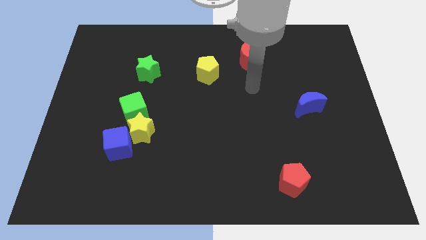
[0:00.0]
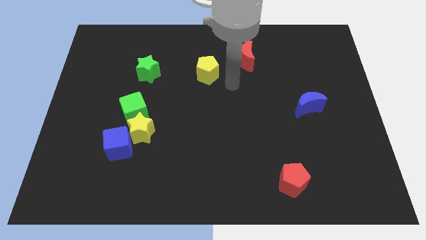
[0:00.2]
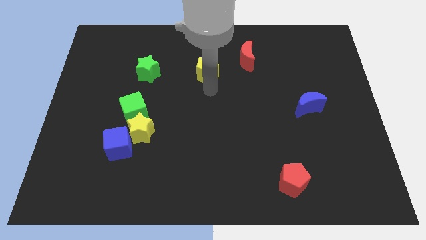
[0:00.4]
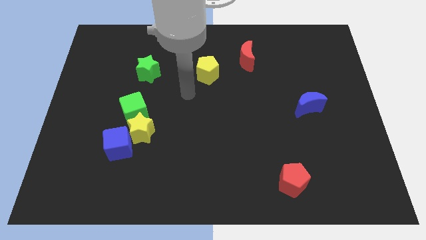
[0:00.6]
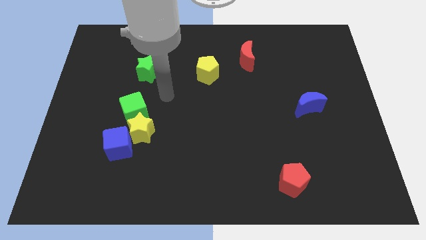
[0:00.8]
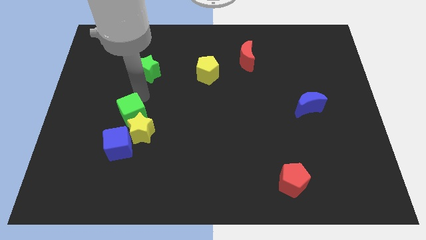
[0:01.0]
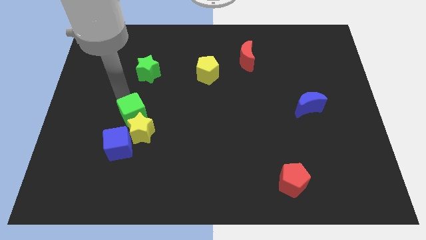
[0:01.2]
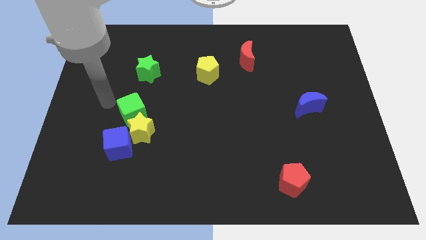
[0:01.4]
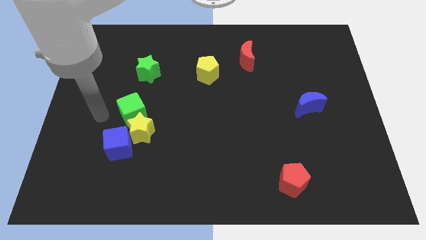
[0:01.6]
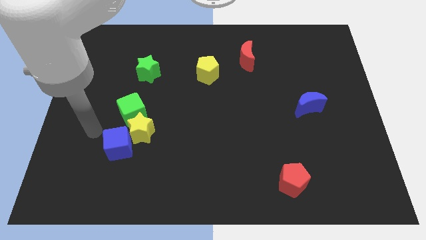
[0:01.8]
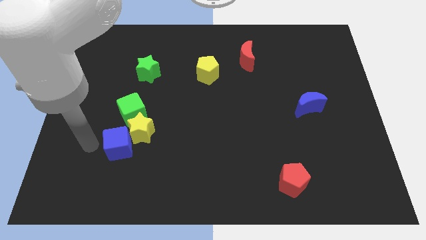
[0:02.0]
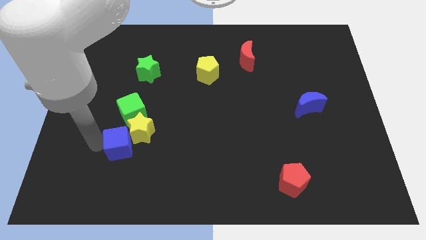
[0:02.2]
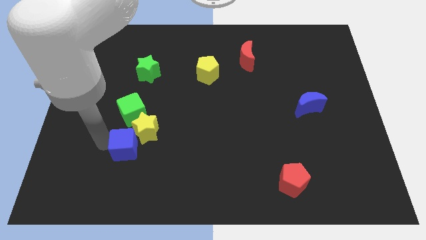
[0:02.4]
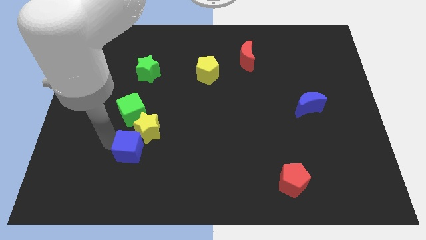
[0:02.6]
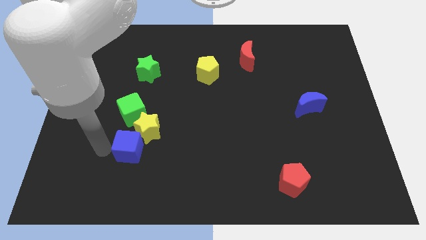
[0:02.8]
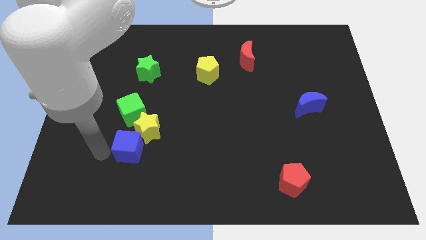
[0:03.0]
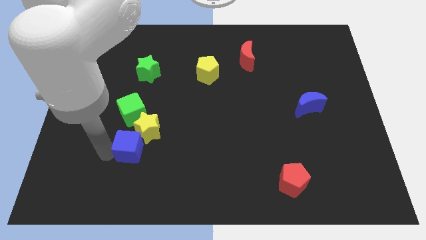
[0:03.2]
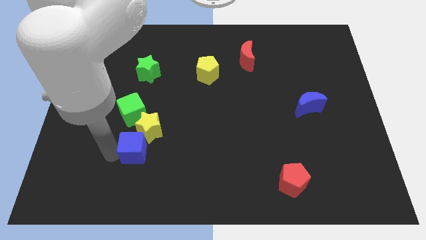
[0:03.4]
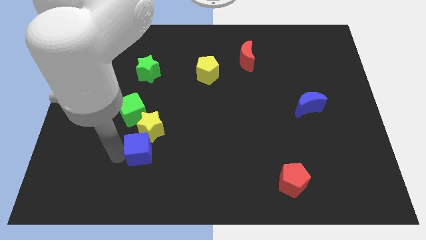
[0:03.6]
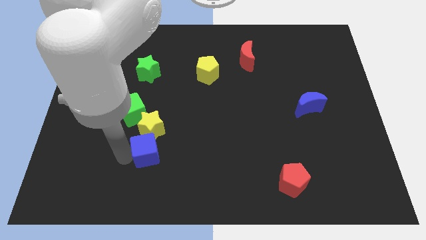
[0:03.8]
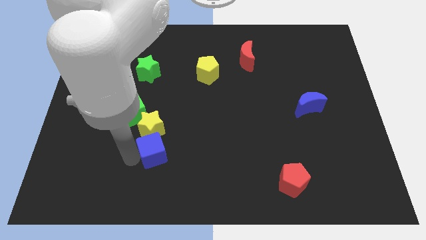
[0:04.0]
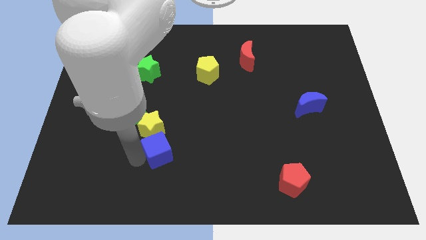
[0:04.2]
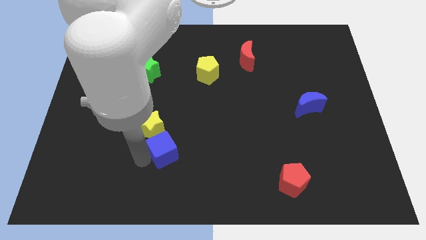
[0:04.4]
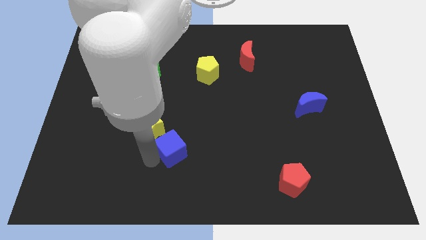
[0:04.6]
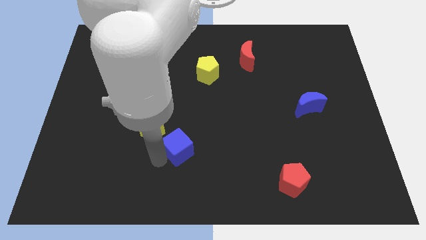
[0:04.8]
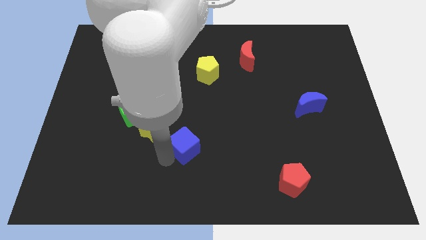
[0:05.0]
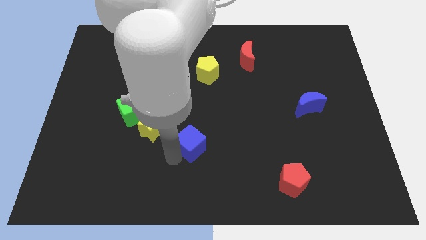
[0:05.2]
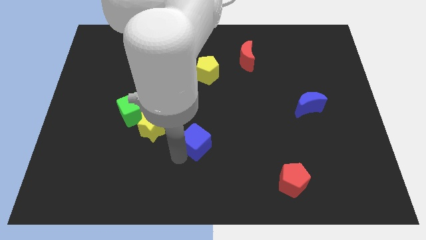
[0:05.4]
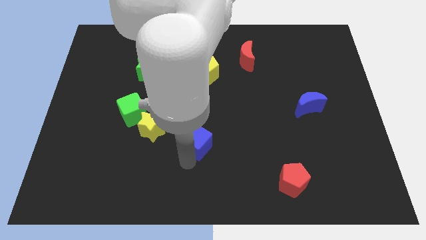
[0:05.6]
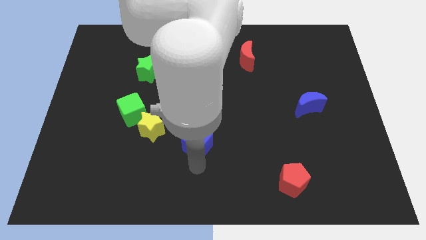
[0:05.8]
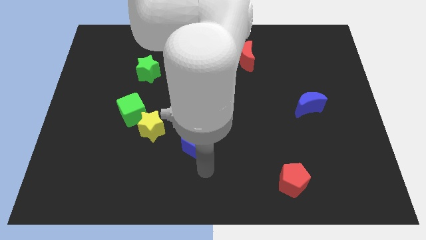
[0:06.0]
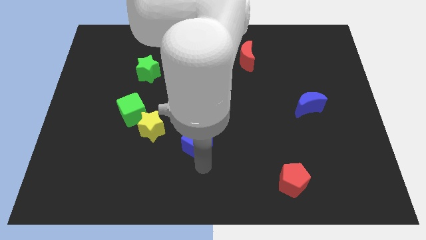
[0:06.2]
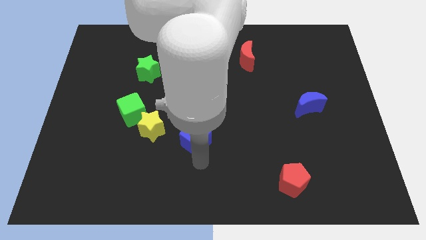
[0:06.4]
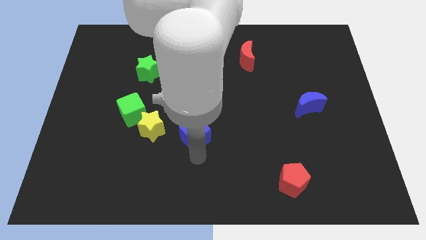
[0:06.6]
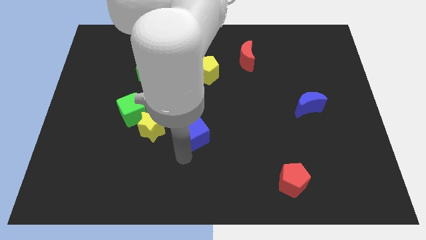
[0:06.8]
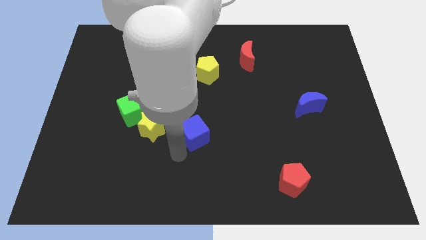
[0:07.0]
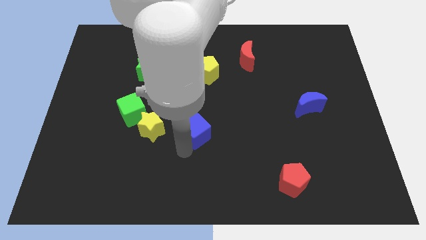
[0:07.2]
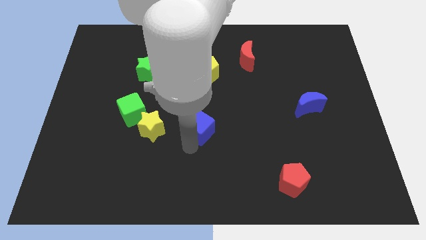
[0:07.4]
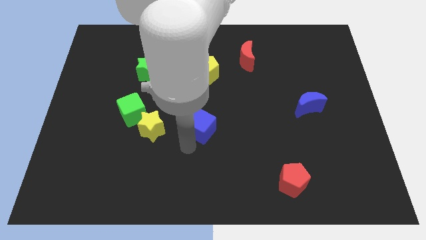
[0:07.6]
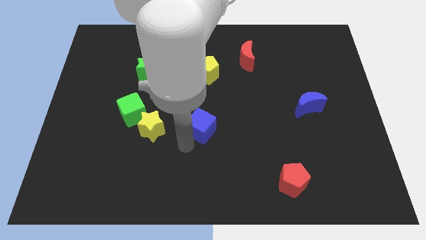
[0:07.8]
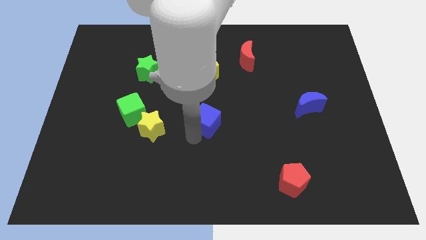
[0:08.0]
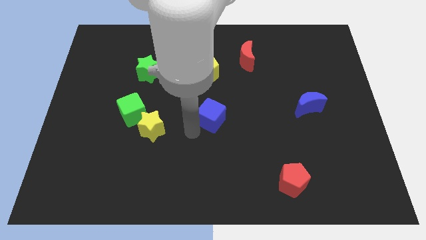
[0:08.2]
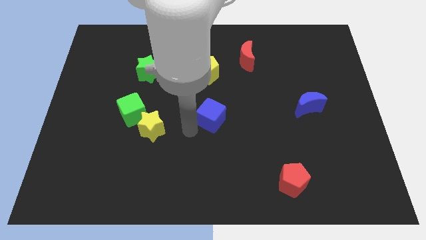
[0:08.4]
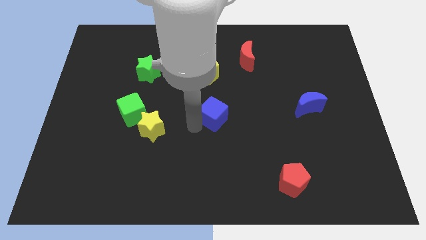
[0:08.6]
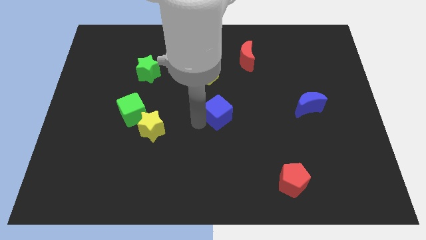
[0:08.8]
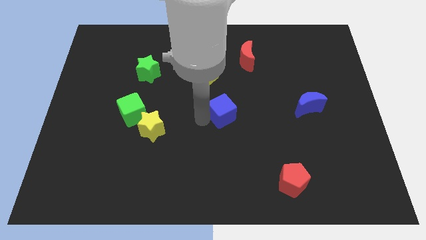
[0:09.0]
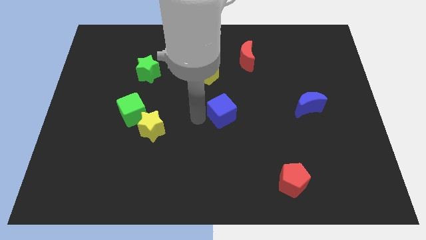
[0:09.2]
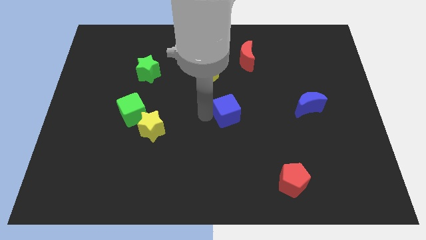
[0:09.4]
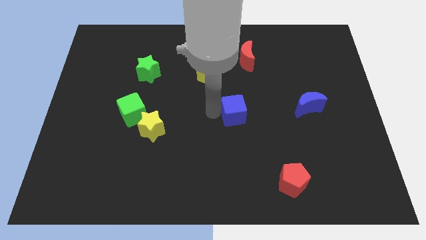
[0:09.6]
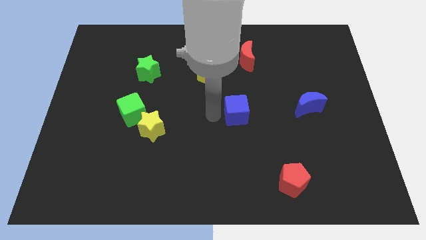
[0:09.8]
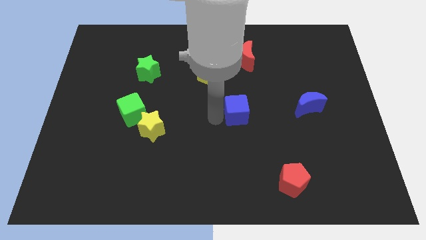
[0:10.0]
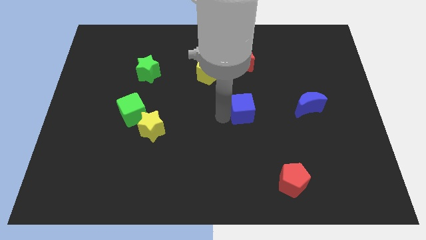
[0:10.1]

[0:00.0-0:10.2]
move the blue cube left of the blue moon

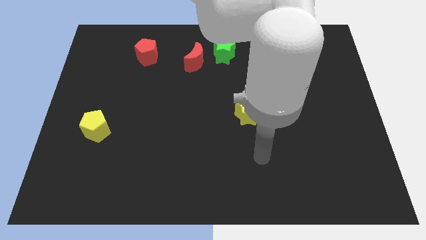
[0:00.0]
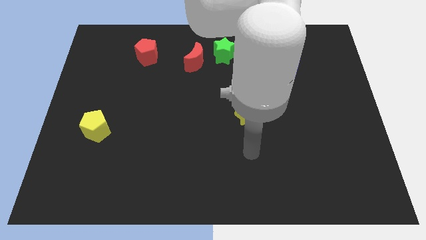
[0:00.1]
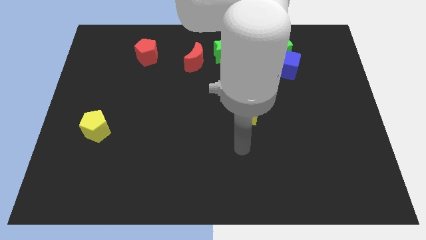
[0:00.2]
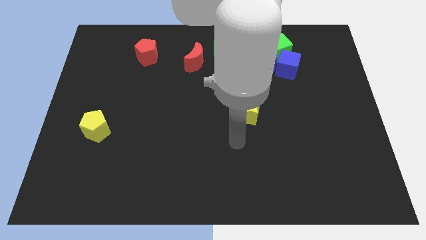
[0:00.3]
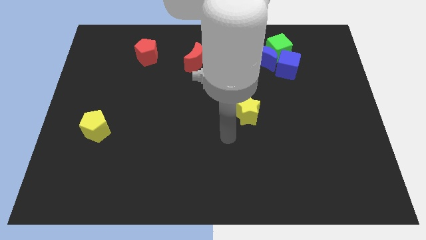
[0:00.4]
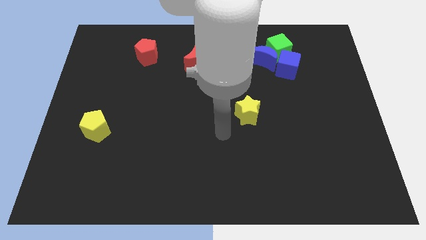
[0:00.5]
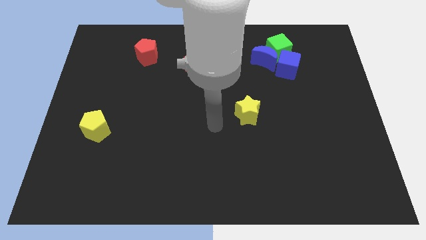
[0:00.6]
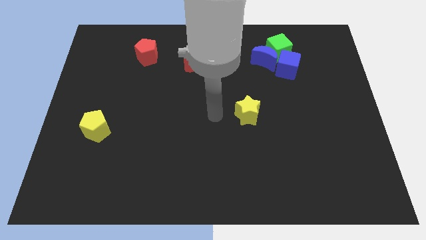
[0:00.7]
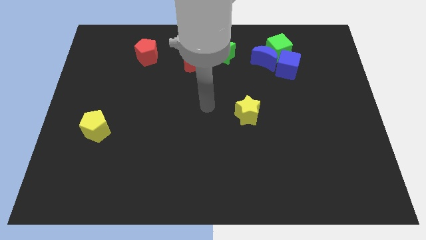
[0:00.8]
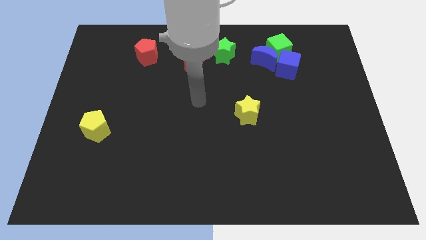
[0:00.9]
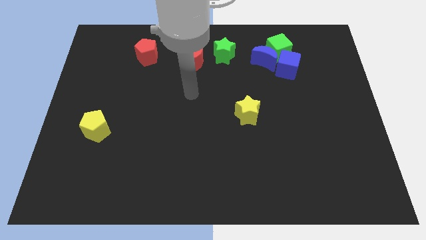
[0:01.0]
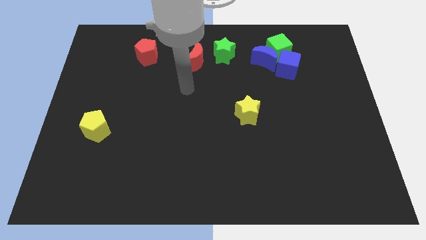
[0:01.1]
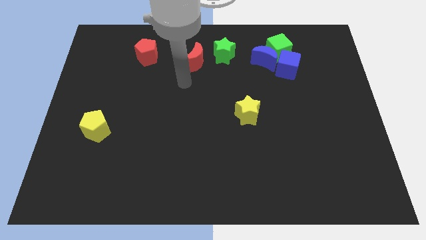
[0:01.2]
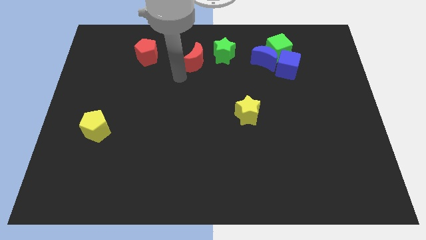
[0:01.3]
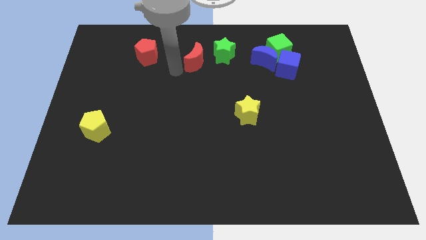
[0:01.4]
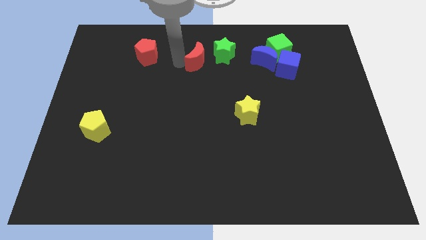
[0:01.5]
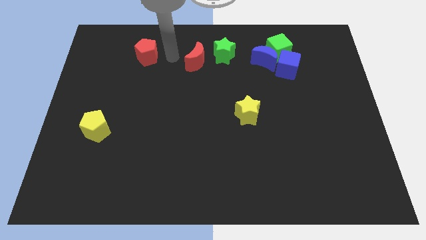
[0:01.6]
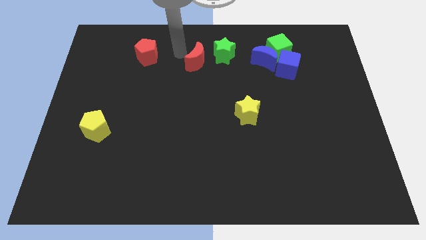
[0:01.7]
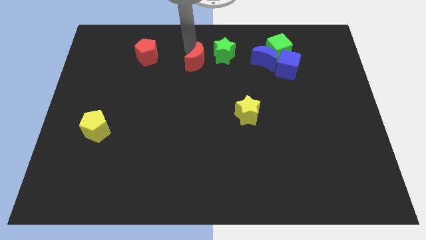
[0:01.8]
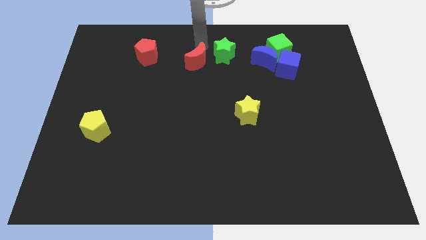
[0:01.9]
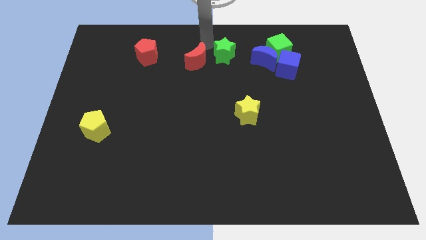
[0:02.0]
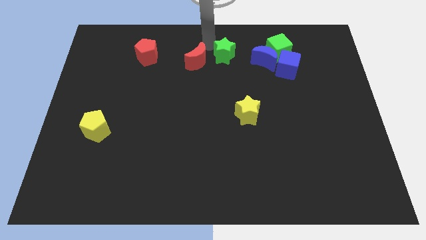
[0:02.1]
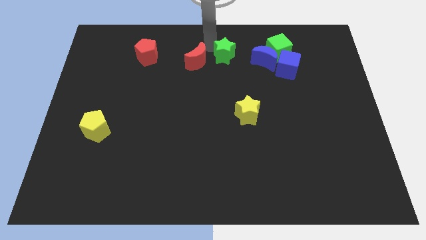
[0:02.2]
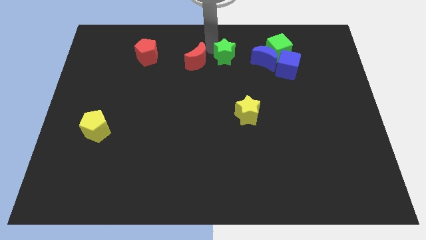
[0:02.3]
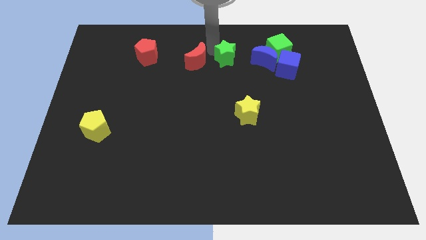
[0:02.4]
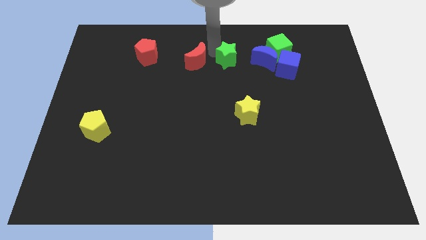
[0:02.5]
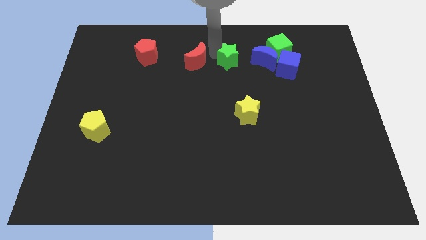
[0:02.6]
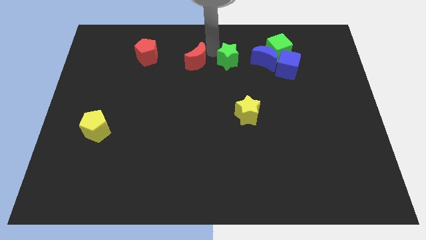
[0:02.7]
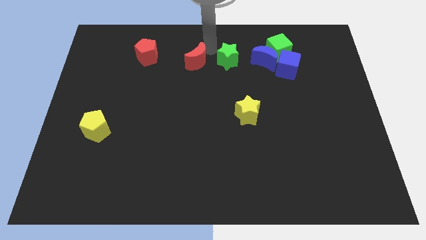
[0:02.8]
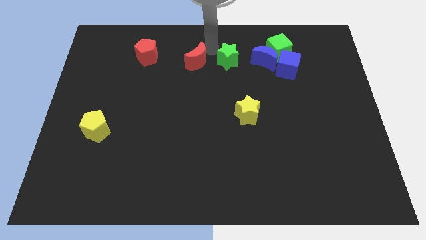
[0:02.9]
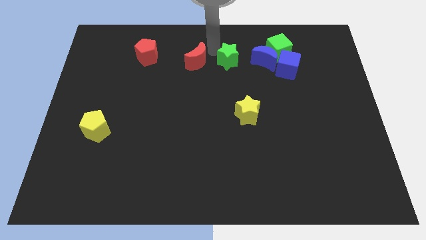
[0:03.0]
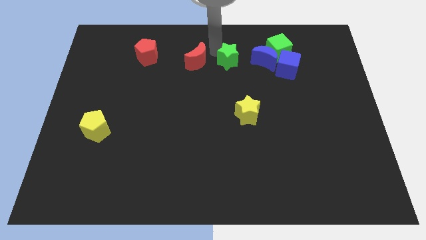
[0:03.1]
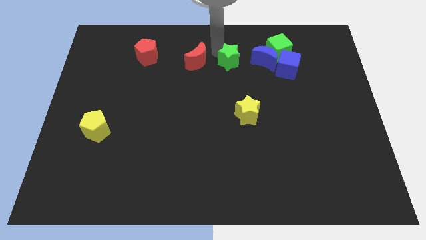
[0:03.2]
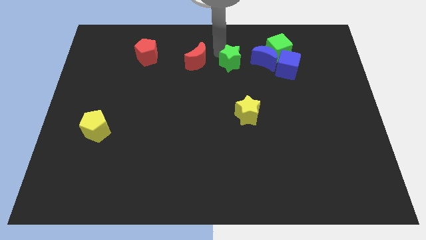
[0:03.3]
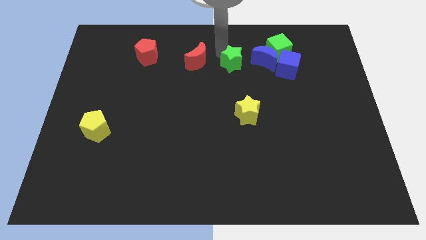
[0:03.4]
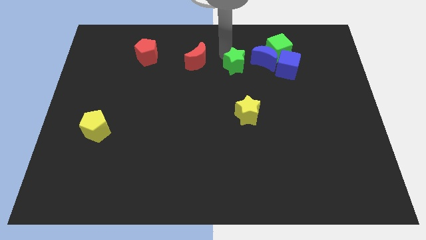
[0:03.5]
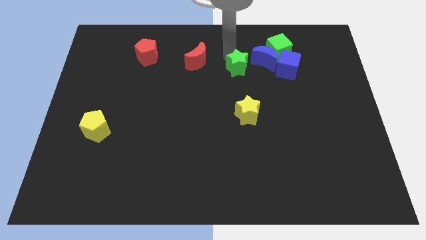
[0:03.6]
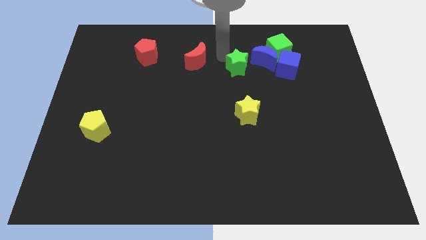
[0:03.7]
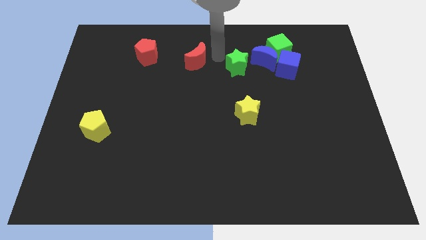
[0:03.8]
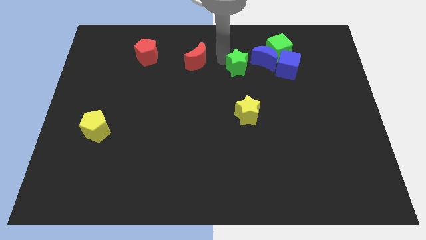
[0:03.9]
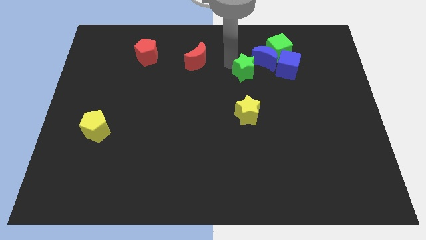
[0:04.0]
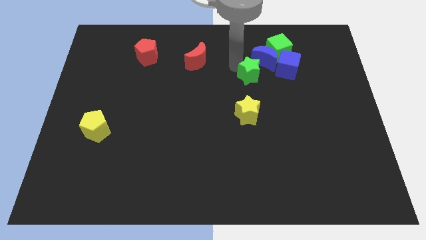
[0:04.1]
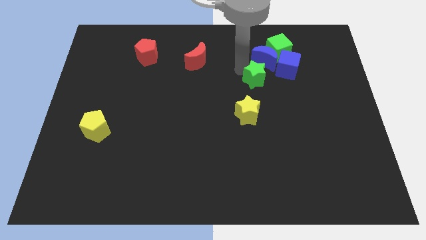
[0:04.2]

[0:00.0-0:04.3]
move the green star to the bottom left of the blue cube
